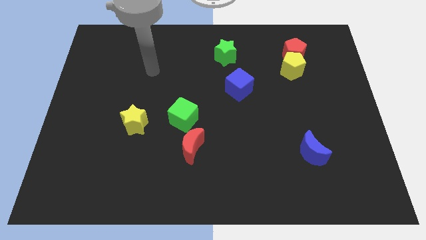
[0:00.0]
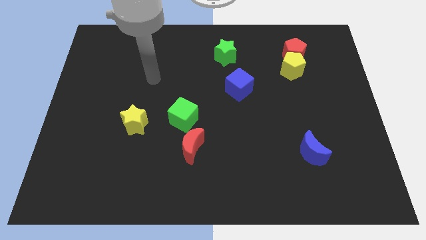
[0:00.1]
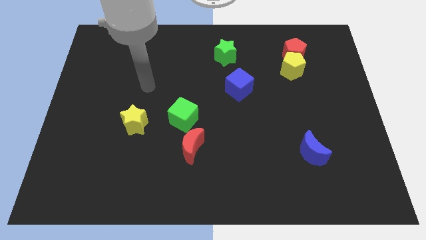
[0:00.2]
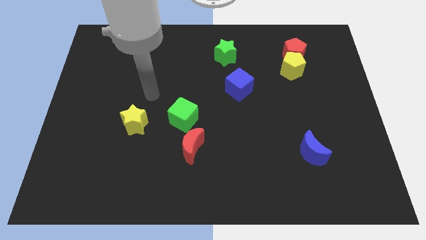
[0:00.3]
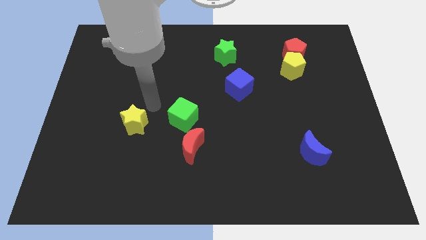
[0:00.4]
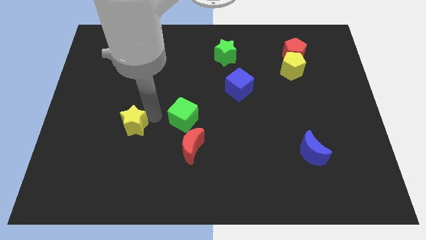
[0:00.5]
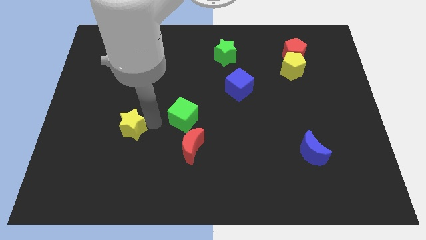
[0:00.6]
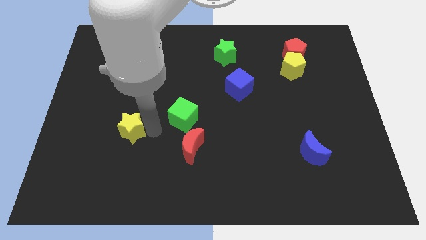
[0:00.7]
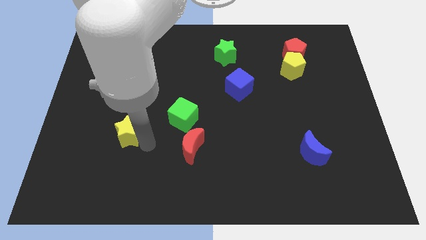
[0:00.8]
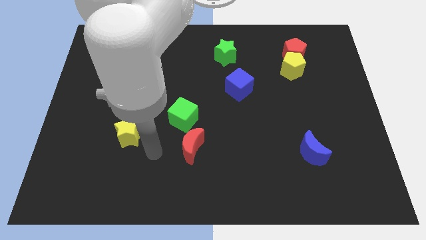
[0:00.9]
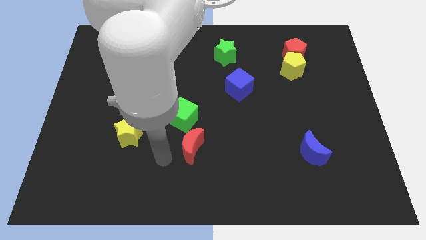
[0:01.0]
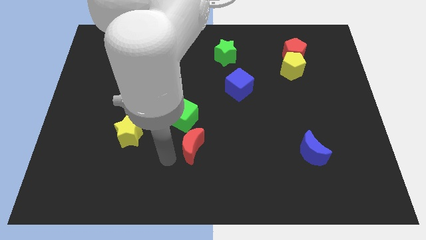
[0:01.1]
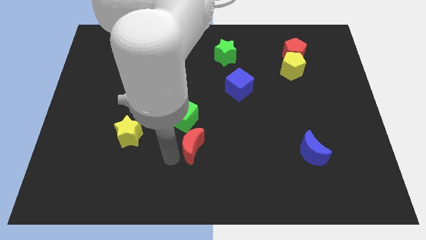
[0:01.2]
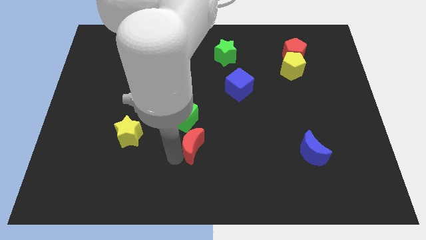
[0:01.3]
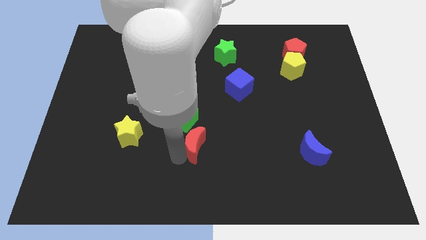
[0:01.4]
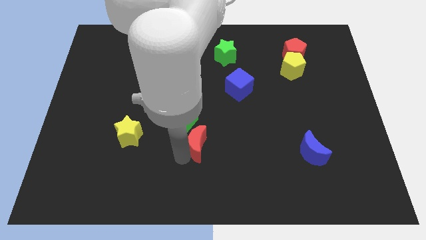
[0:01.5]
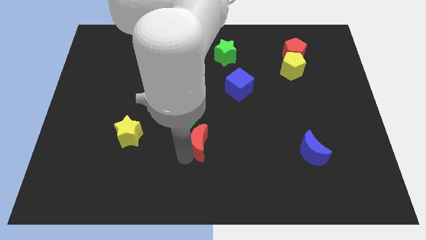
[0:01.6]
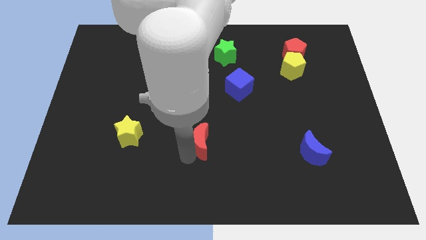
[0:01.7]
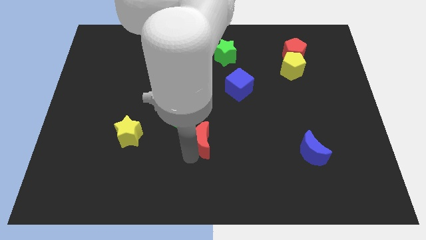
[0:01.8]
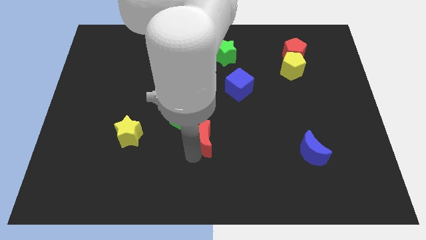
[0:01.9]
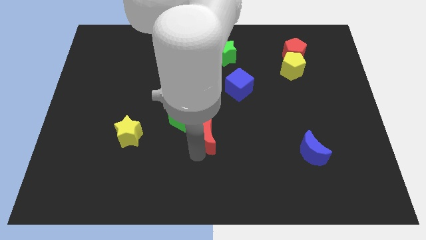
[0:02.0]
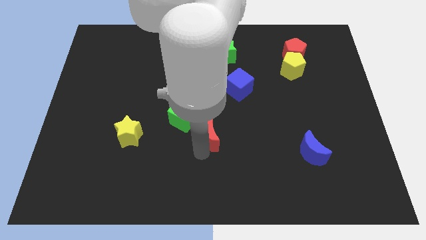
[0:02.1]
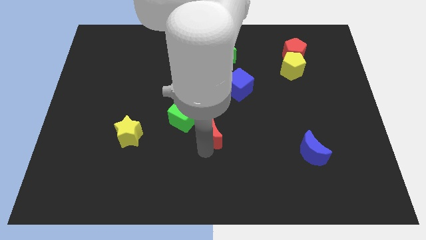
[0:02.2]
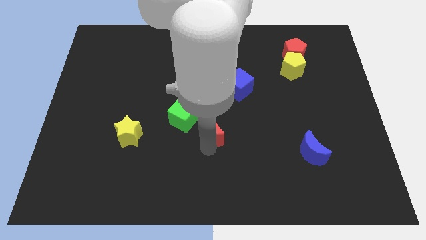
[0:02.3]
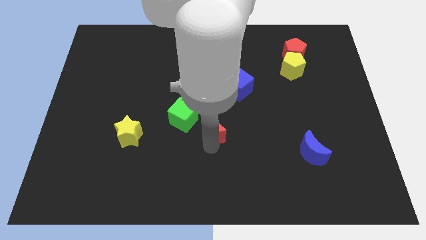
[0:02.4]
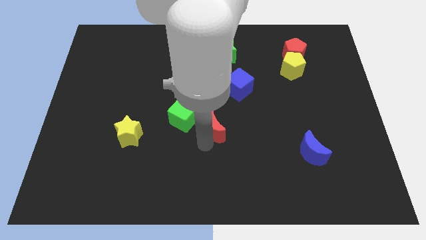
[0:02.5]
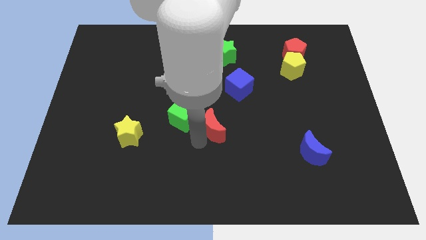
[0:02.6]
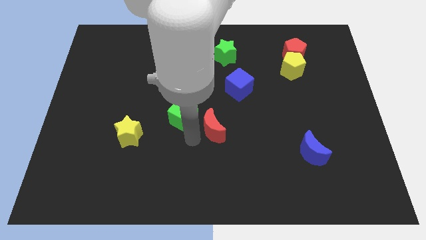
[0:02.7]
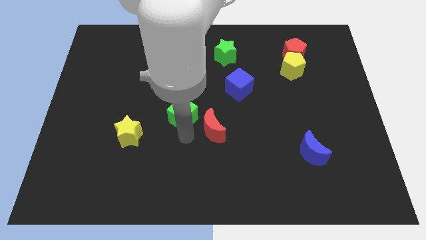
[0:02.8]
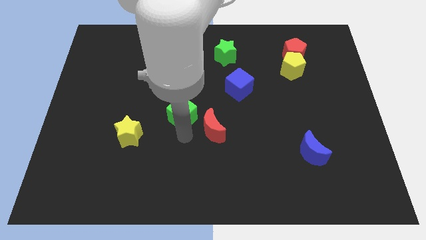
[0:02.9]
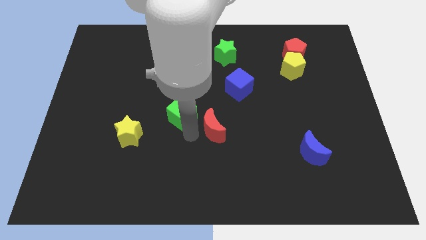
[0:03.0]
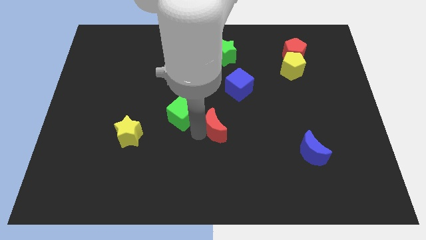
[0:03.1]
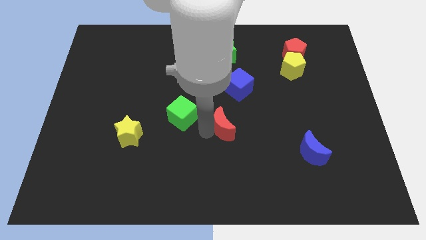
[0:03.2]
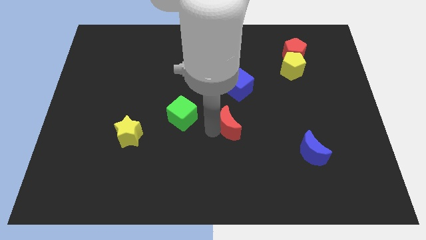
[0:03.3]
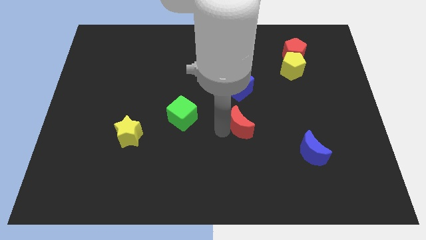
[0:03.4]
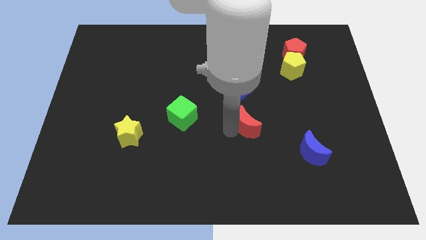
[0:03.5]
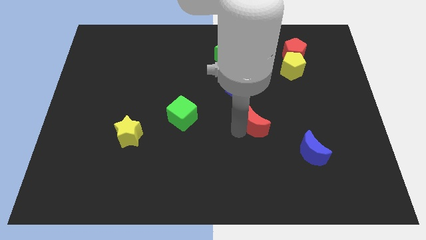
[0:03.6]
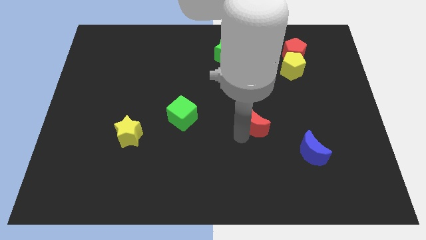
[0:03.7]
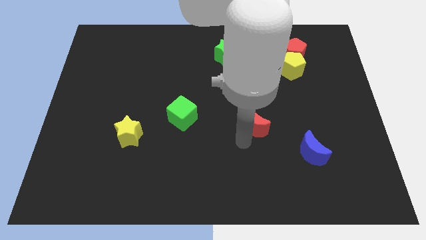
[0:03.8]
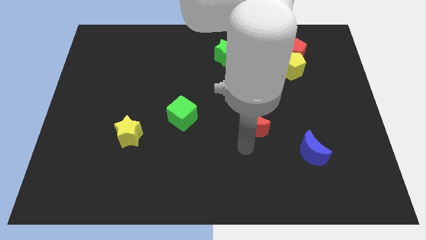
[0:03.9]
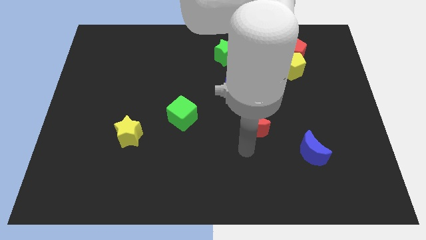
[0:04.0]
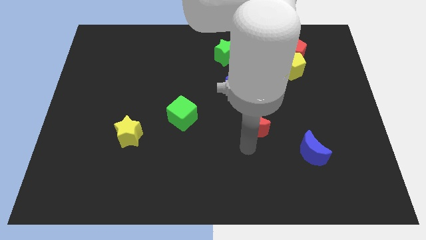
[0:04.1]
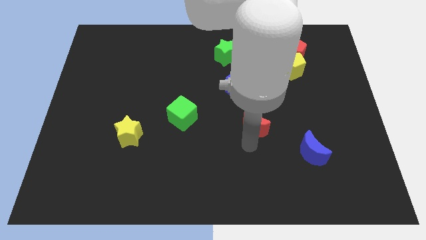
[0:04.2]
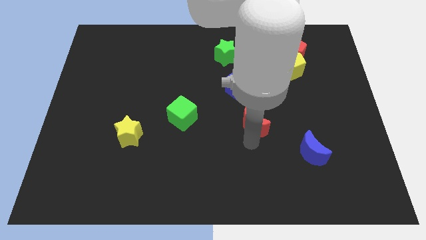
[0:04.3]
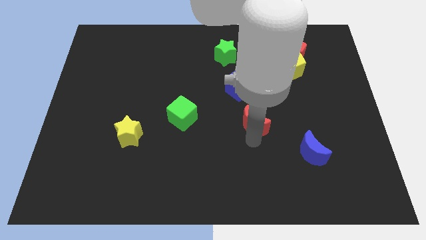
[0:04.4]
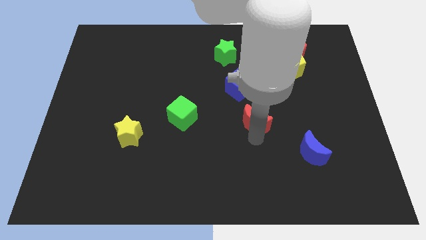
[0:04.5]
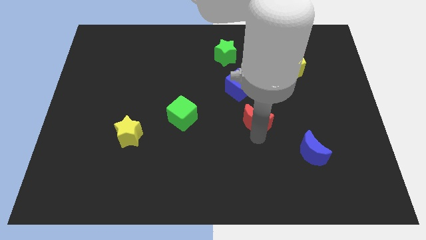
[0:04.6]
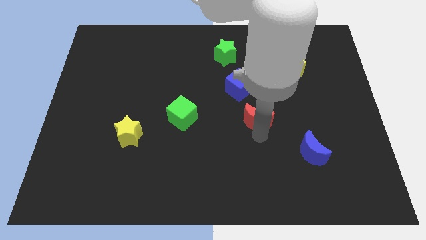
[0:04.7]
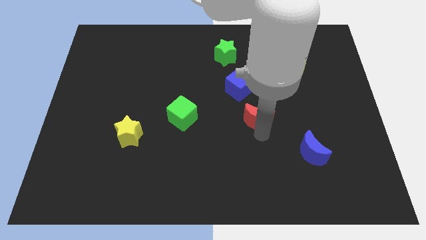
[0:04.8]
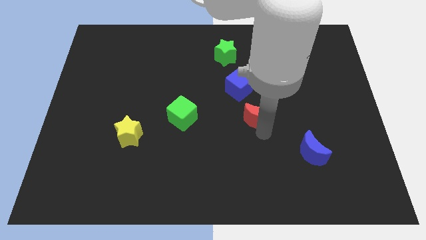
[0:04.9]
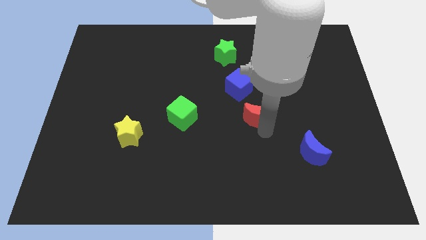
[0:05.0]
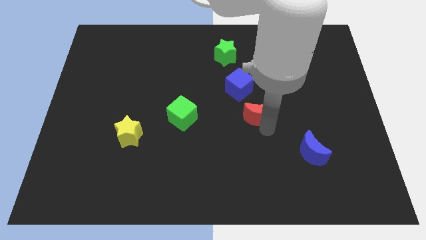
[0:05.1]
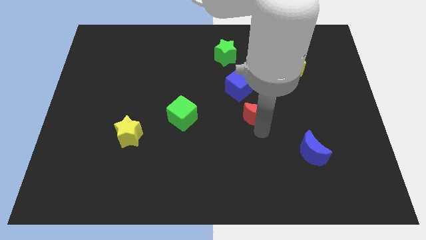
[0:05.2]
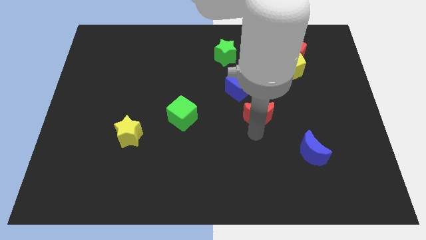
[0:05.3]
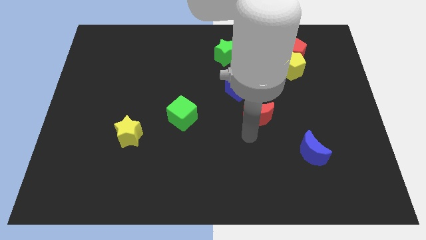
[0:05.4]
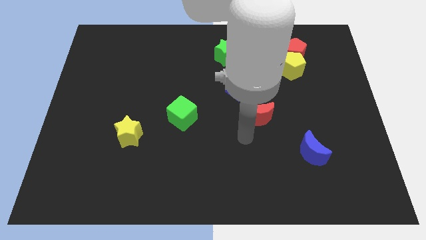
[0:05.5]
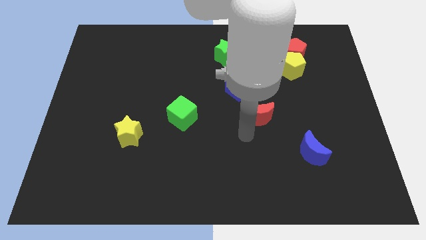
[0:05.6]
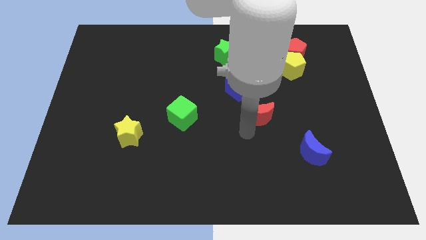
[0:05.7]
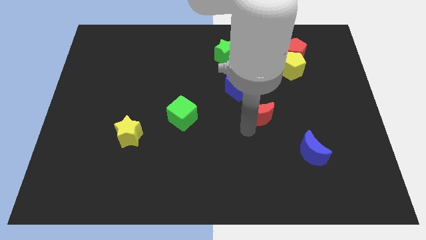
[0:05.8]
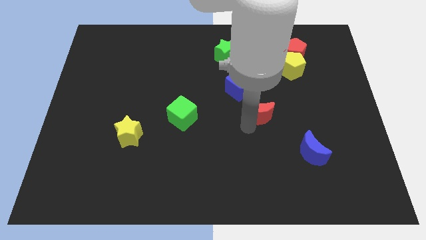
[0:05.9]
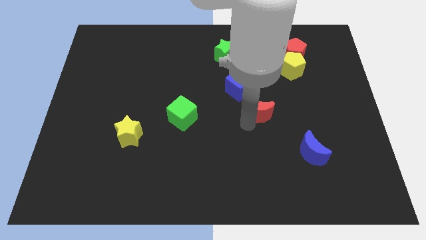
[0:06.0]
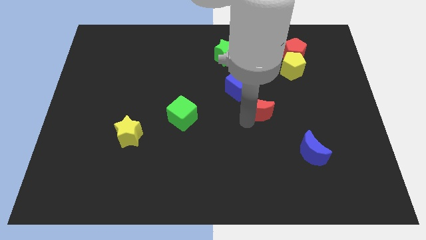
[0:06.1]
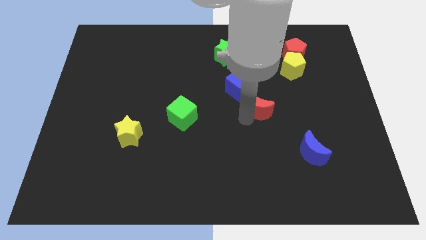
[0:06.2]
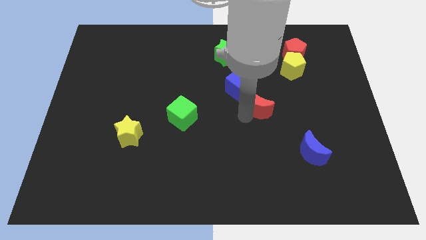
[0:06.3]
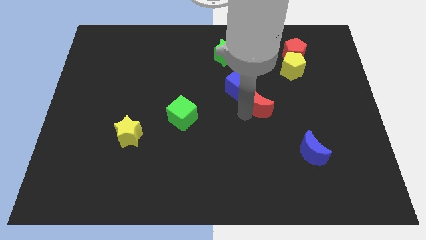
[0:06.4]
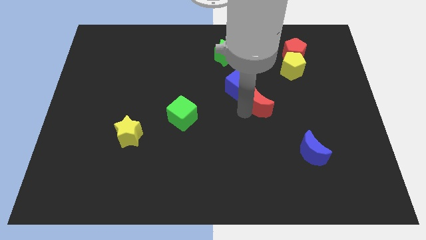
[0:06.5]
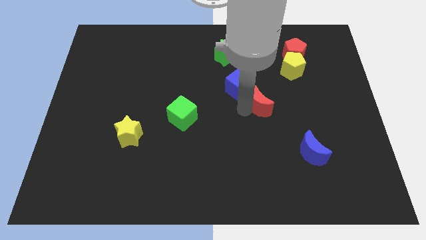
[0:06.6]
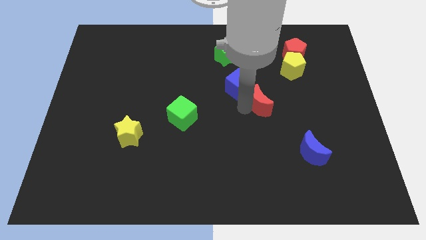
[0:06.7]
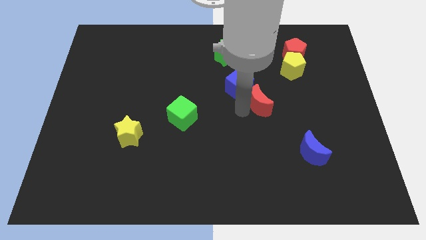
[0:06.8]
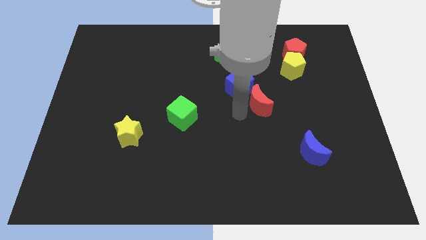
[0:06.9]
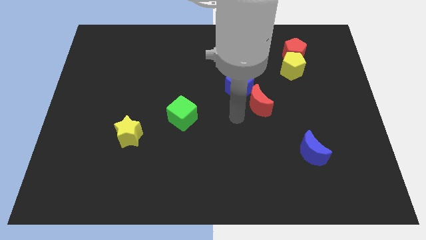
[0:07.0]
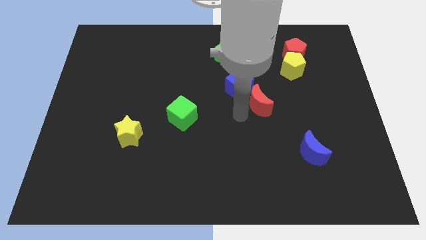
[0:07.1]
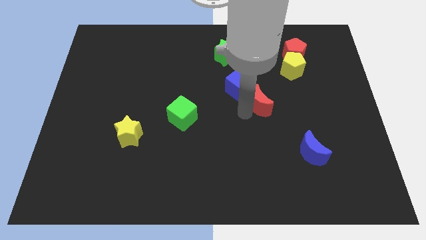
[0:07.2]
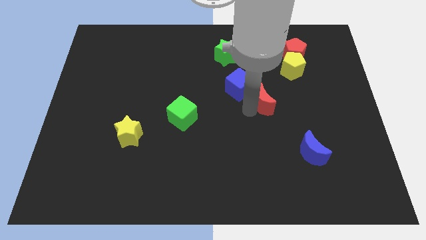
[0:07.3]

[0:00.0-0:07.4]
push the red moon just right of the blue cube
